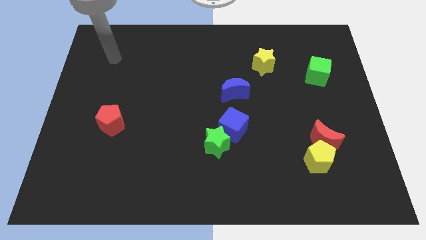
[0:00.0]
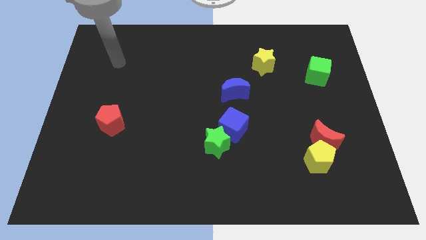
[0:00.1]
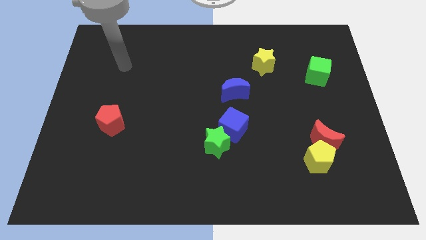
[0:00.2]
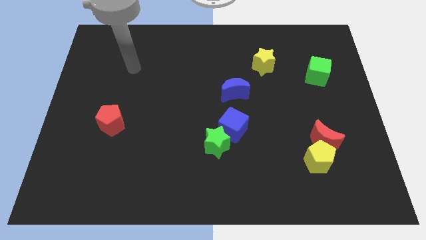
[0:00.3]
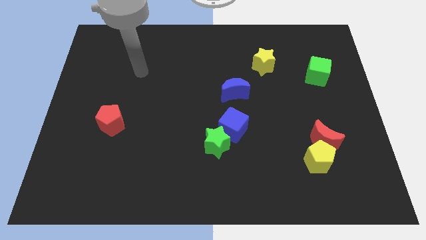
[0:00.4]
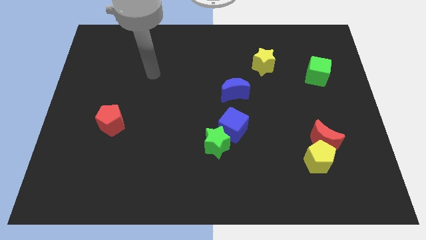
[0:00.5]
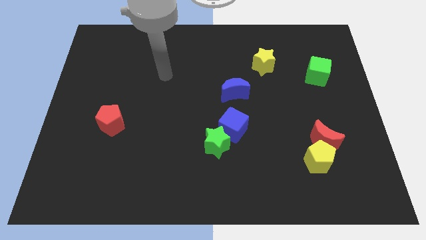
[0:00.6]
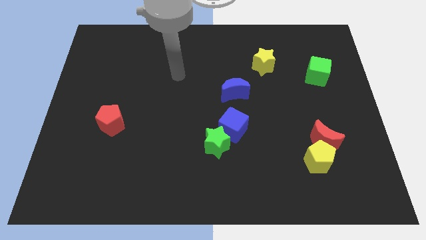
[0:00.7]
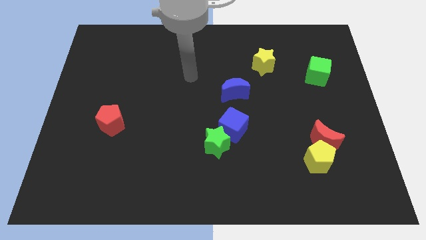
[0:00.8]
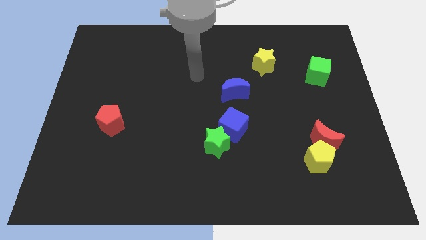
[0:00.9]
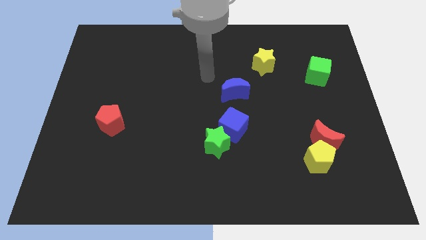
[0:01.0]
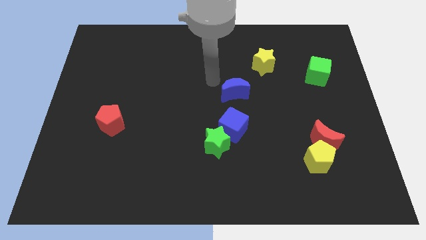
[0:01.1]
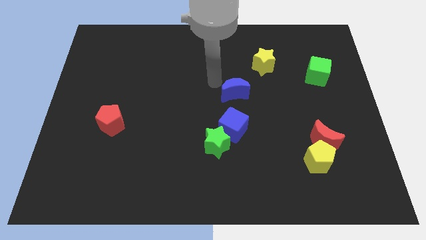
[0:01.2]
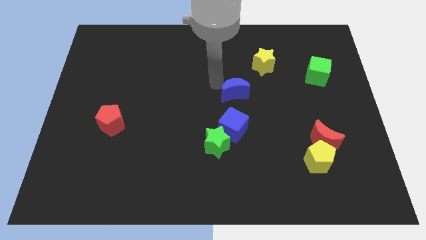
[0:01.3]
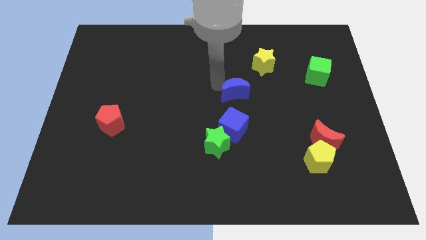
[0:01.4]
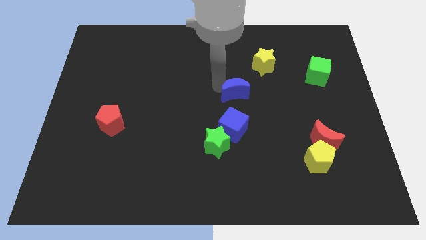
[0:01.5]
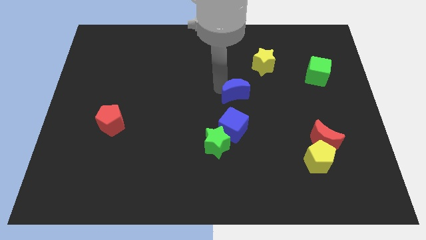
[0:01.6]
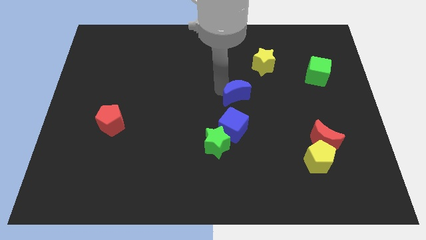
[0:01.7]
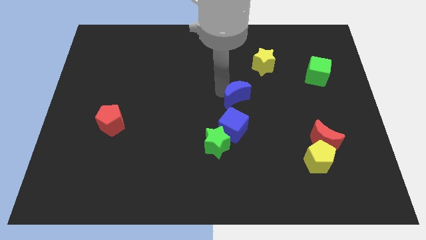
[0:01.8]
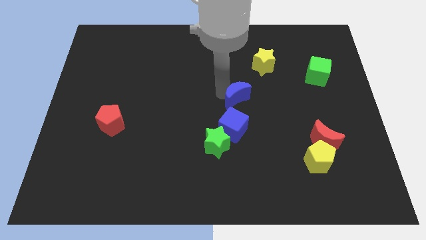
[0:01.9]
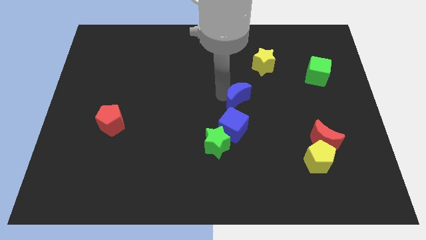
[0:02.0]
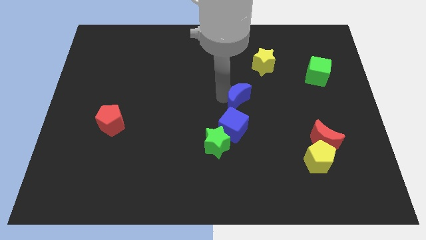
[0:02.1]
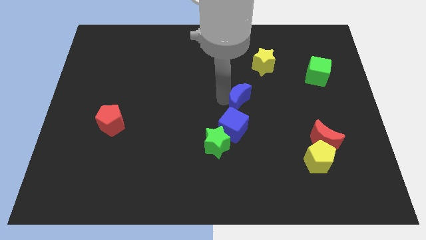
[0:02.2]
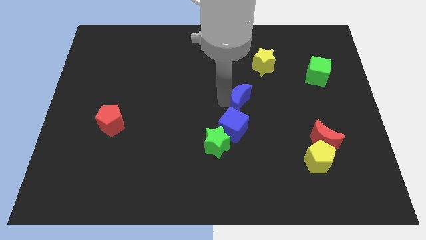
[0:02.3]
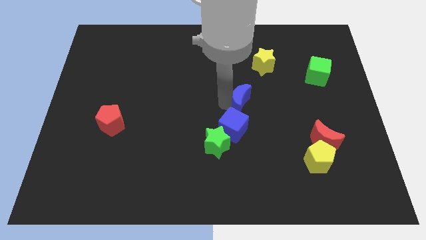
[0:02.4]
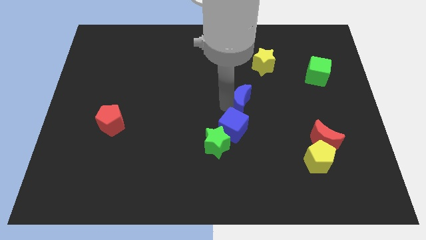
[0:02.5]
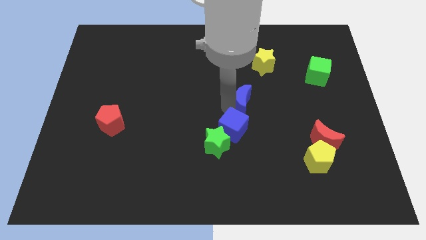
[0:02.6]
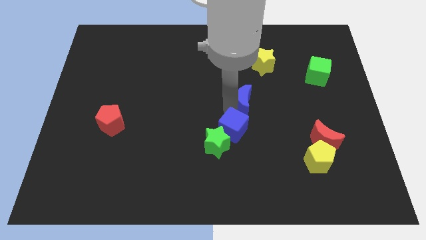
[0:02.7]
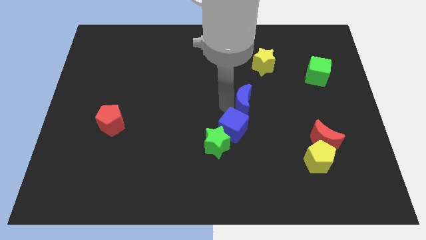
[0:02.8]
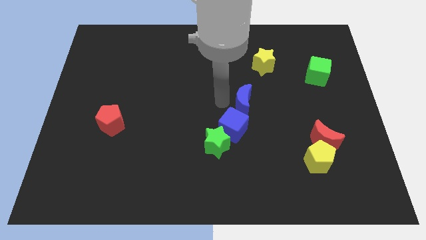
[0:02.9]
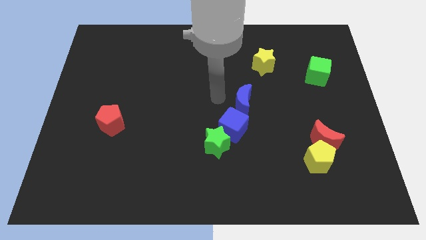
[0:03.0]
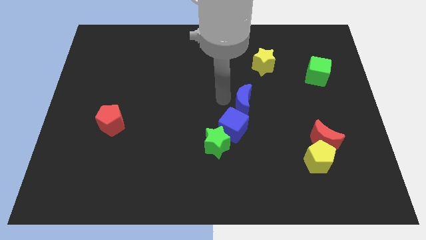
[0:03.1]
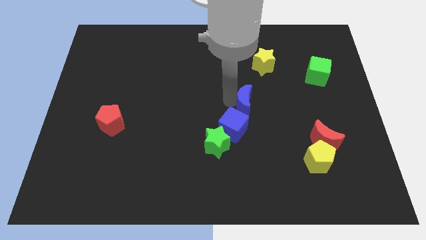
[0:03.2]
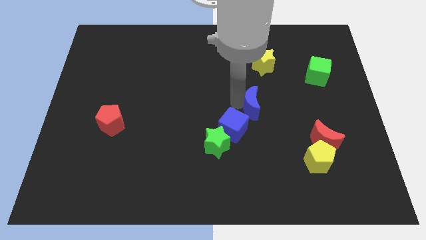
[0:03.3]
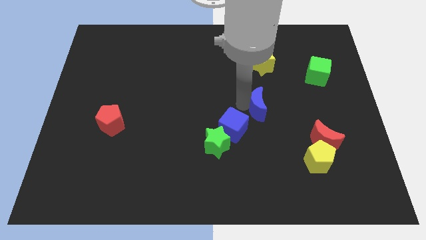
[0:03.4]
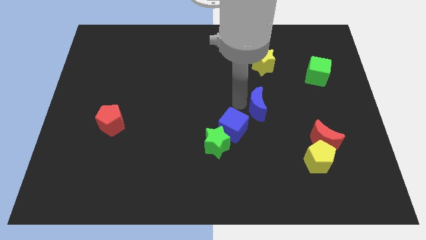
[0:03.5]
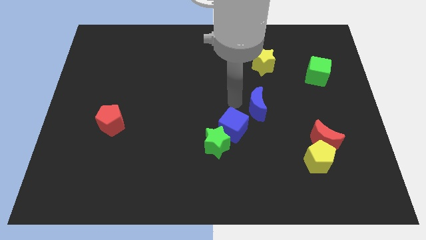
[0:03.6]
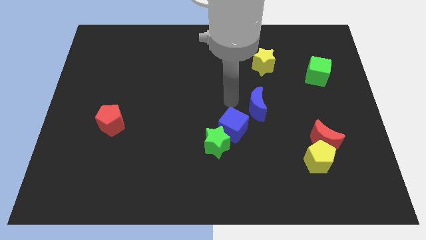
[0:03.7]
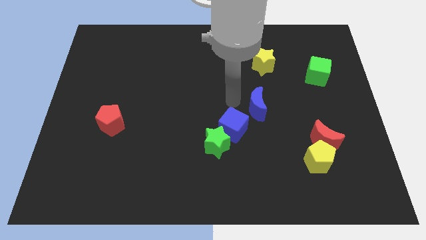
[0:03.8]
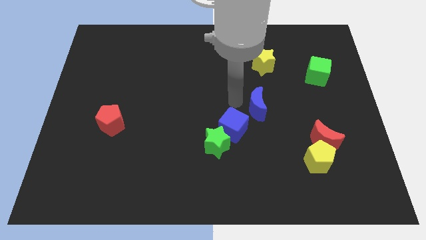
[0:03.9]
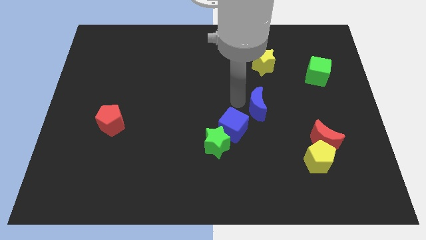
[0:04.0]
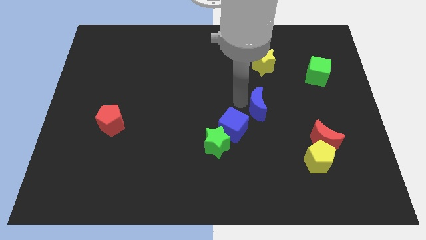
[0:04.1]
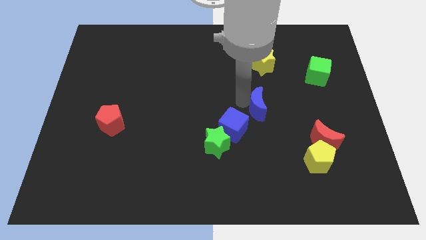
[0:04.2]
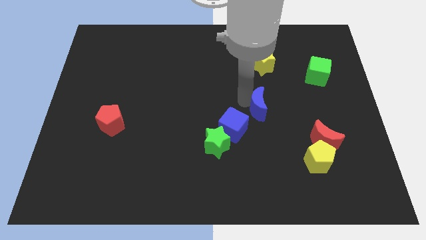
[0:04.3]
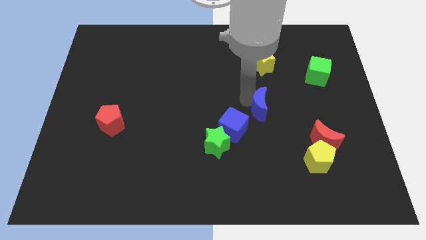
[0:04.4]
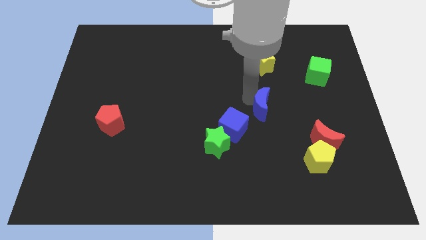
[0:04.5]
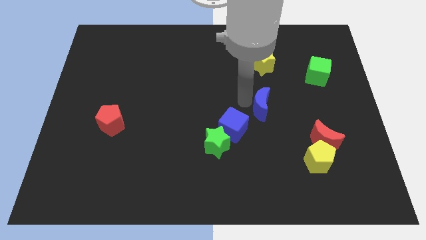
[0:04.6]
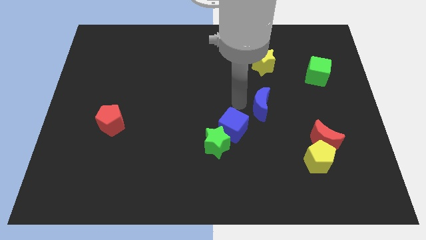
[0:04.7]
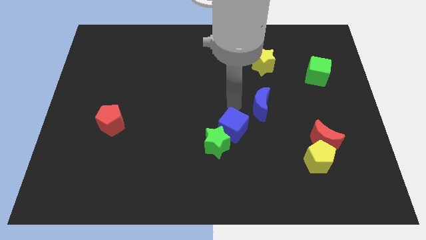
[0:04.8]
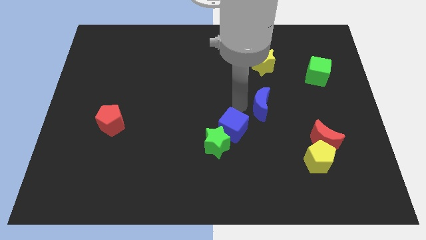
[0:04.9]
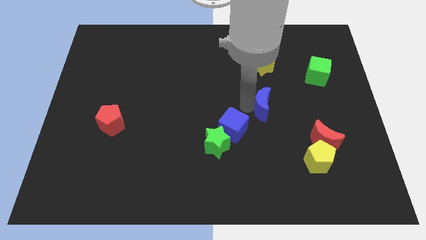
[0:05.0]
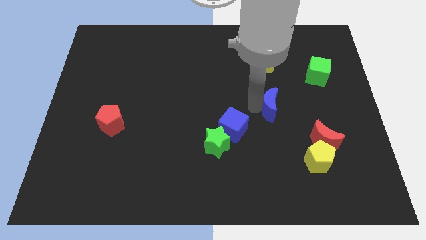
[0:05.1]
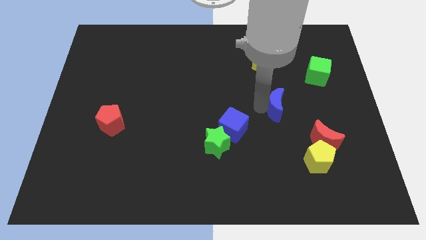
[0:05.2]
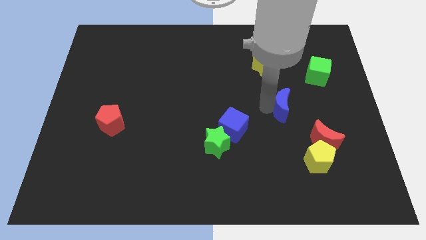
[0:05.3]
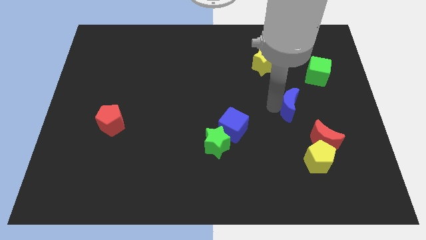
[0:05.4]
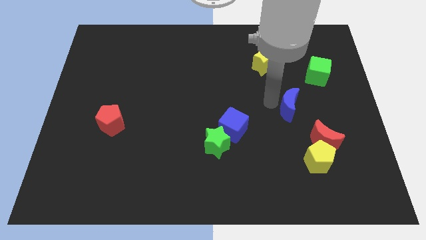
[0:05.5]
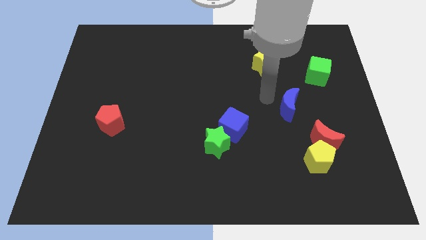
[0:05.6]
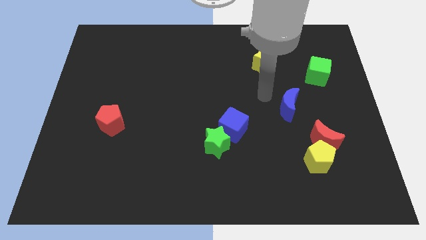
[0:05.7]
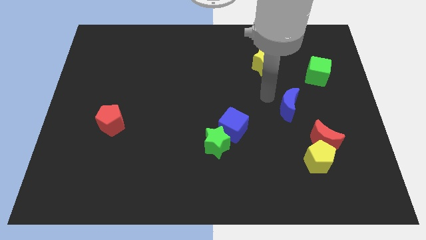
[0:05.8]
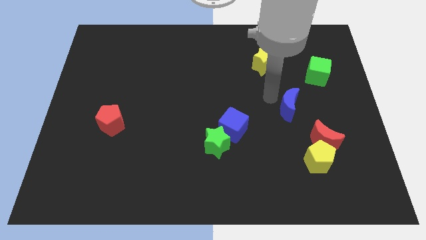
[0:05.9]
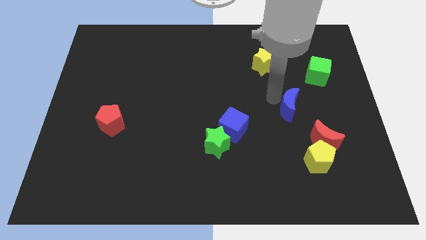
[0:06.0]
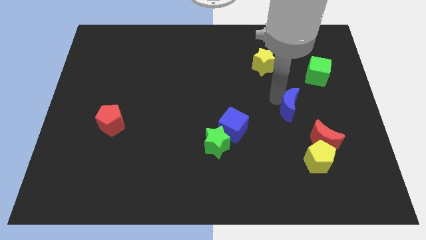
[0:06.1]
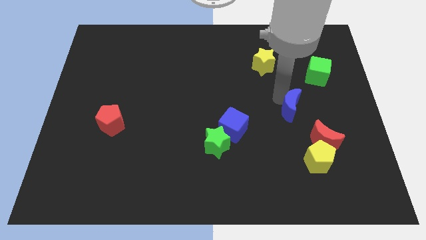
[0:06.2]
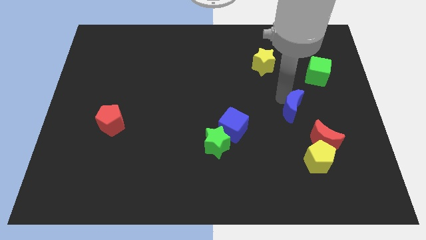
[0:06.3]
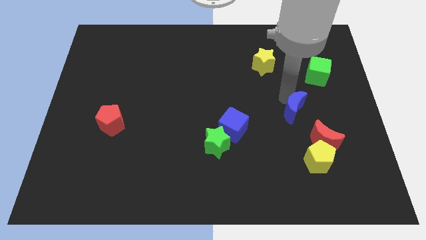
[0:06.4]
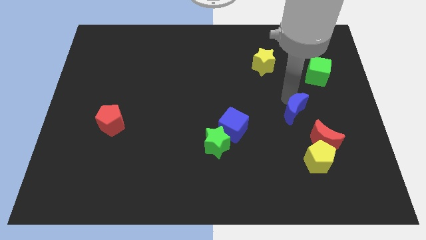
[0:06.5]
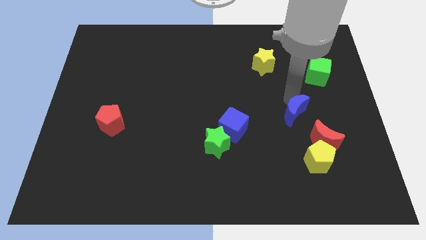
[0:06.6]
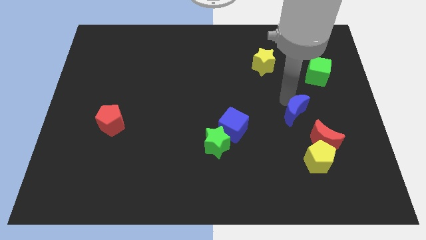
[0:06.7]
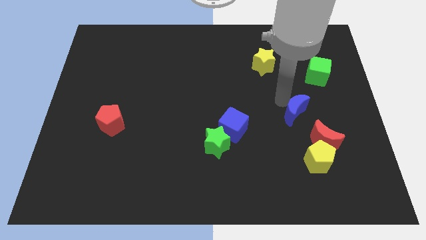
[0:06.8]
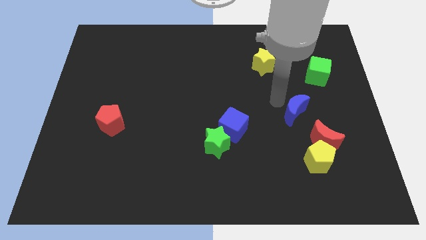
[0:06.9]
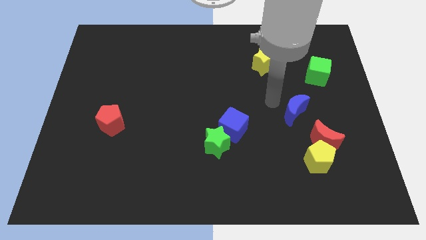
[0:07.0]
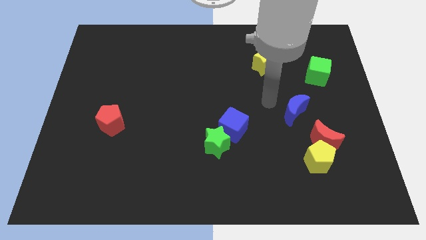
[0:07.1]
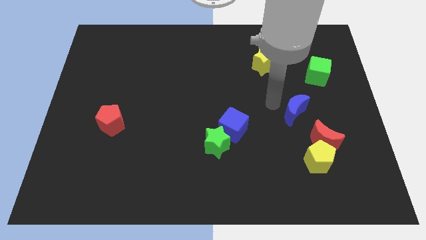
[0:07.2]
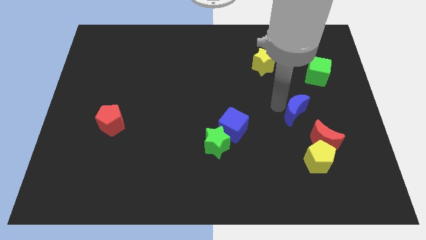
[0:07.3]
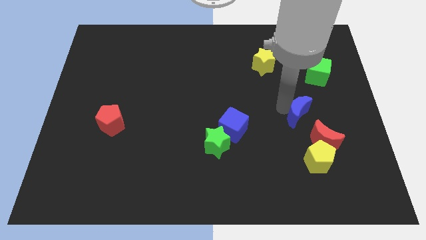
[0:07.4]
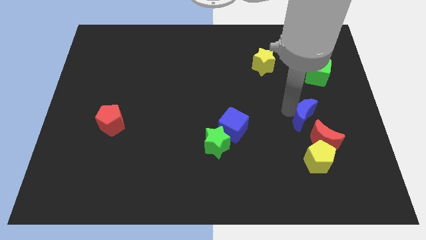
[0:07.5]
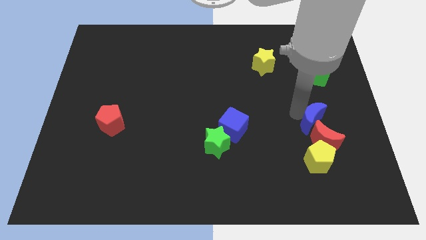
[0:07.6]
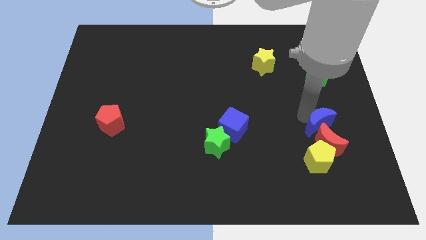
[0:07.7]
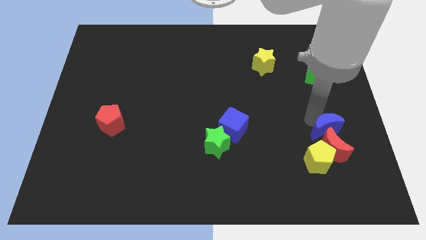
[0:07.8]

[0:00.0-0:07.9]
put the blue moon to the top right of the yellow pentagon

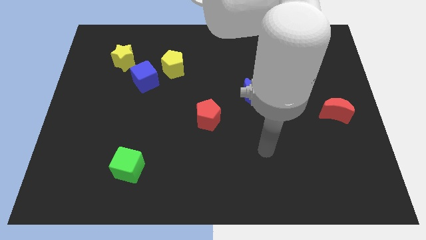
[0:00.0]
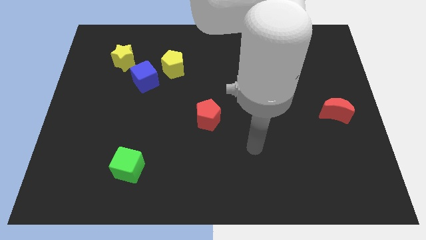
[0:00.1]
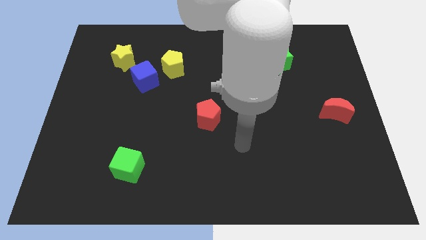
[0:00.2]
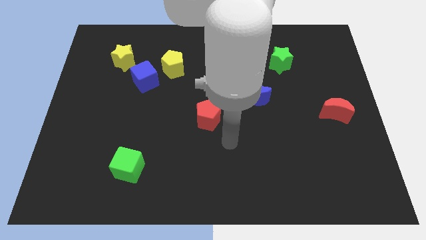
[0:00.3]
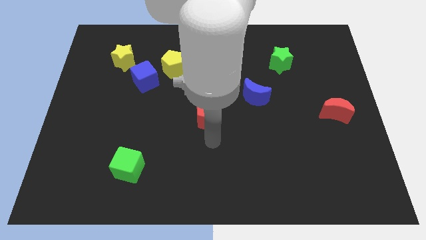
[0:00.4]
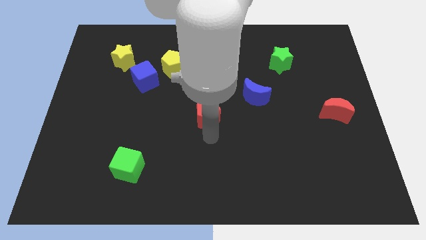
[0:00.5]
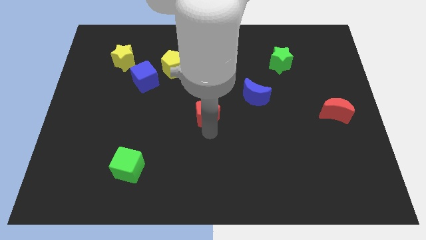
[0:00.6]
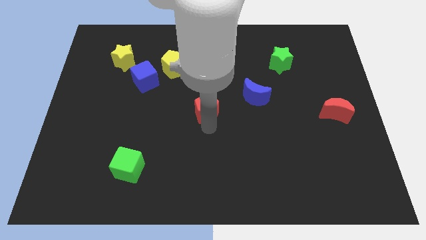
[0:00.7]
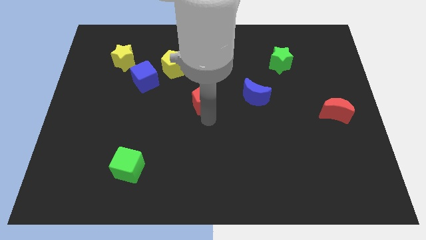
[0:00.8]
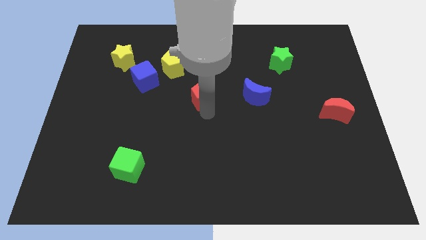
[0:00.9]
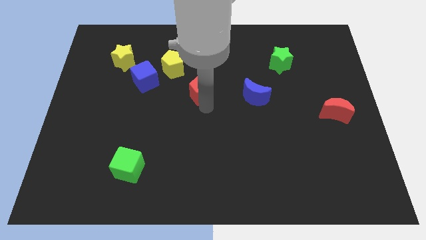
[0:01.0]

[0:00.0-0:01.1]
slide the red pentagon to the bottom right side of the yellow pentagon
